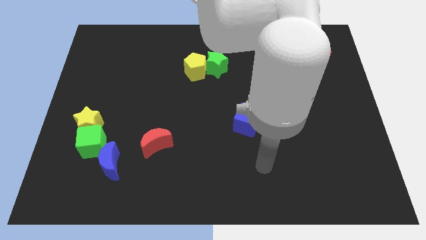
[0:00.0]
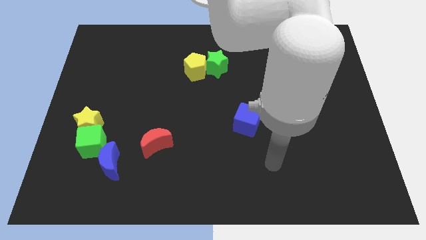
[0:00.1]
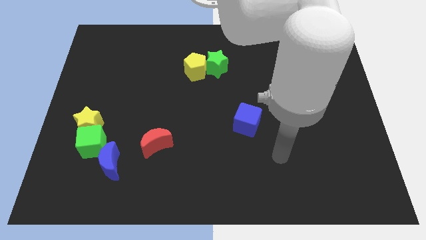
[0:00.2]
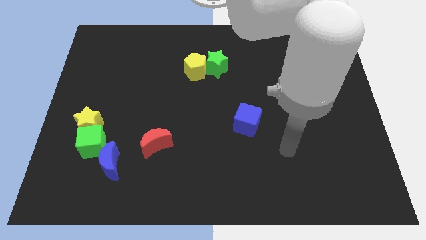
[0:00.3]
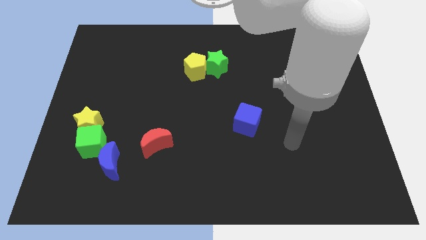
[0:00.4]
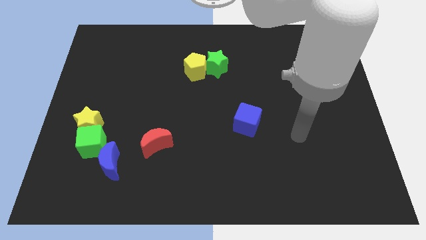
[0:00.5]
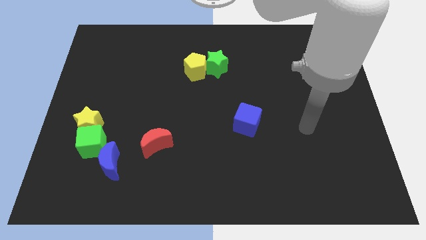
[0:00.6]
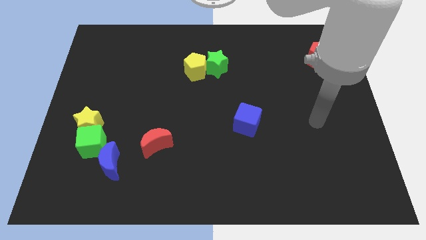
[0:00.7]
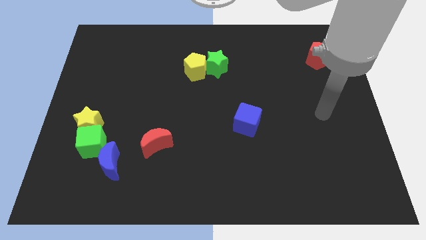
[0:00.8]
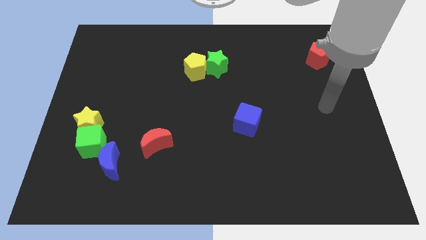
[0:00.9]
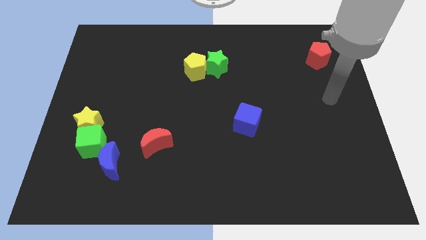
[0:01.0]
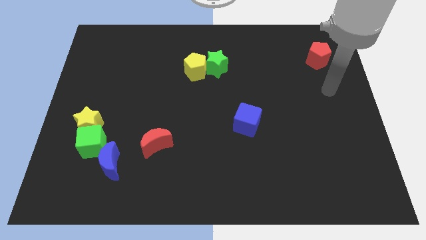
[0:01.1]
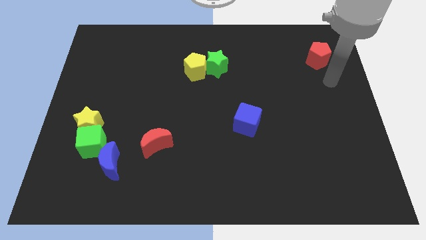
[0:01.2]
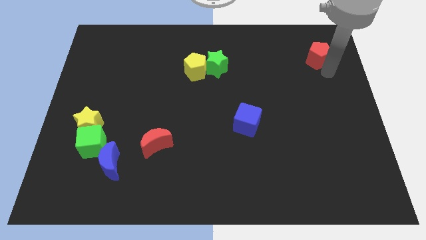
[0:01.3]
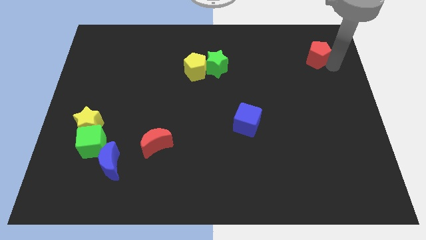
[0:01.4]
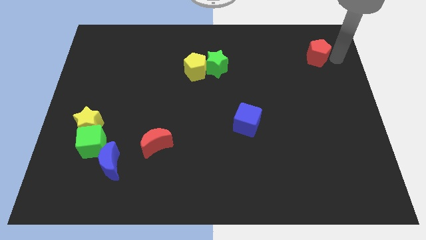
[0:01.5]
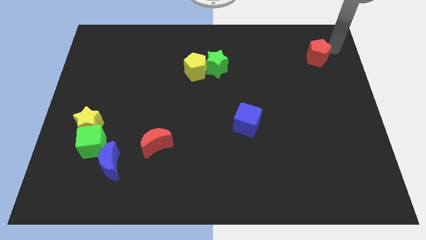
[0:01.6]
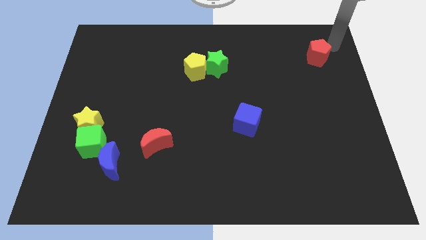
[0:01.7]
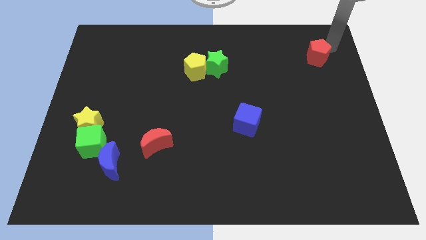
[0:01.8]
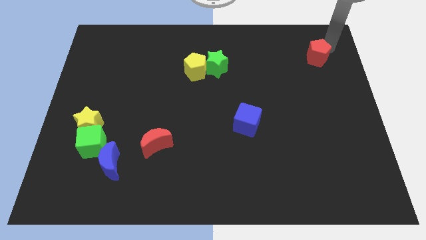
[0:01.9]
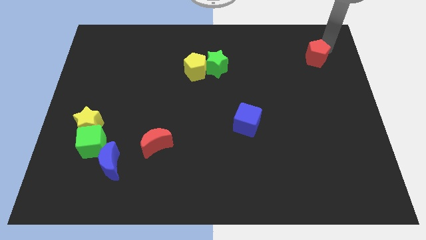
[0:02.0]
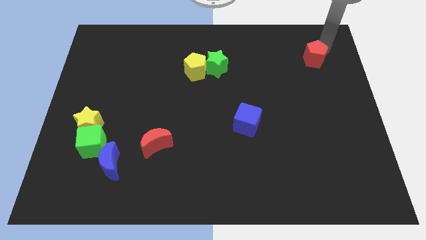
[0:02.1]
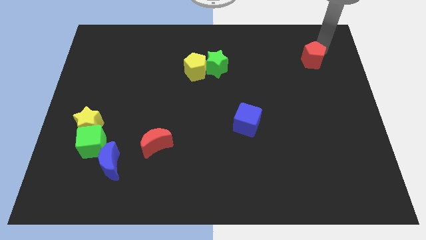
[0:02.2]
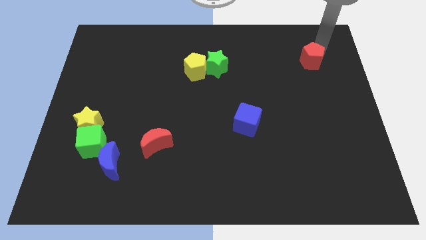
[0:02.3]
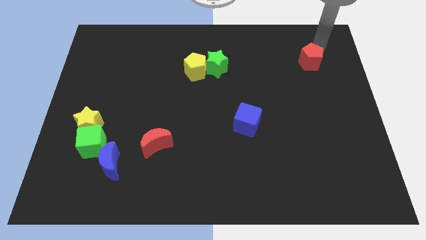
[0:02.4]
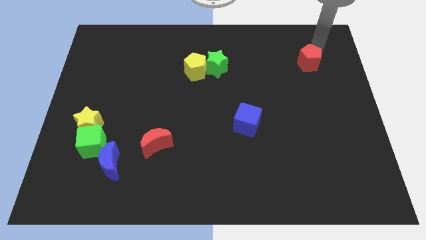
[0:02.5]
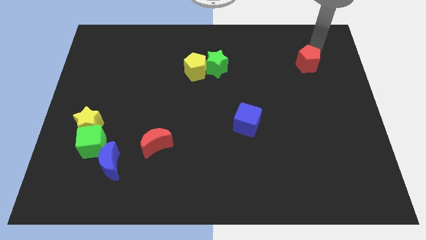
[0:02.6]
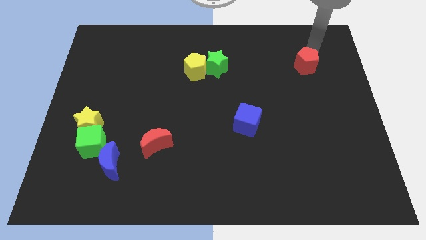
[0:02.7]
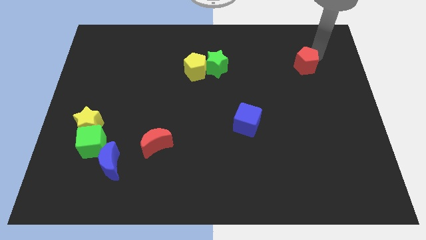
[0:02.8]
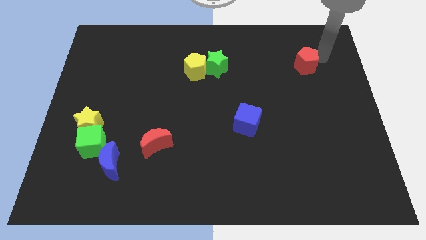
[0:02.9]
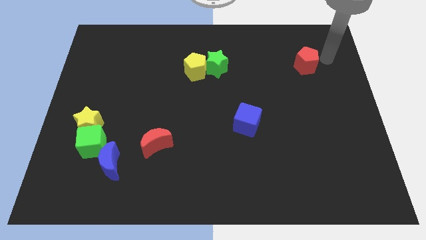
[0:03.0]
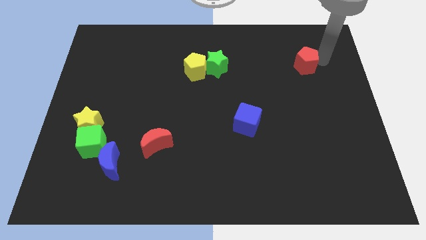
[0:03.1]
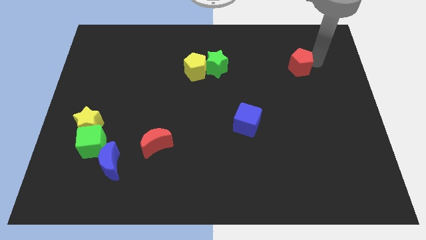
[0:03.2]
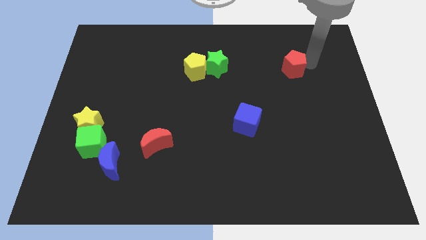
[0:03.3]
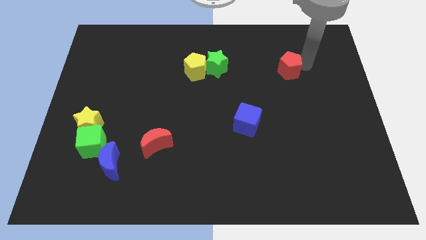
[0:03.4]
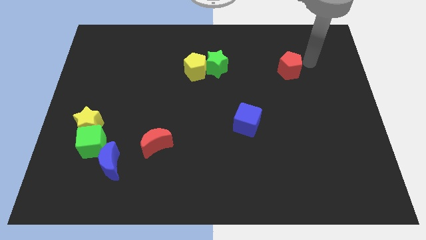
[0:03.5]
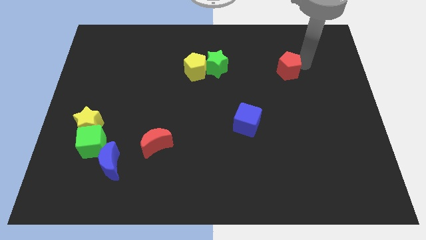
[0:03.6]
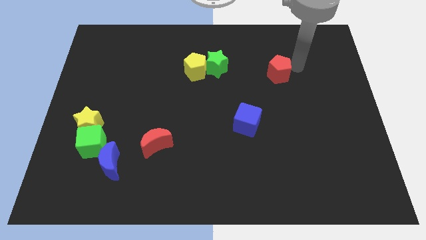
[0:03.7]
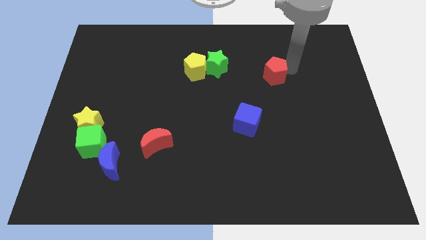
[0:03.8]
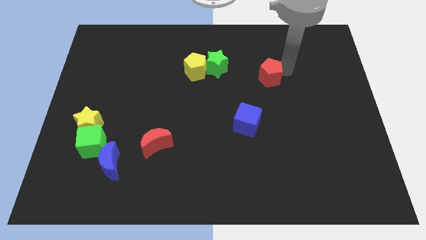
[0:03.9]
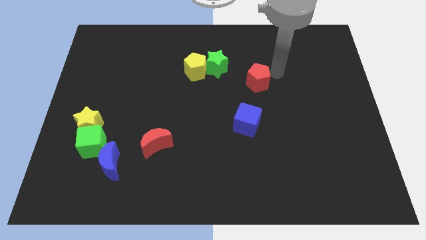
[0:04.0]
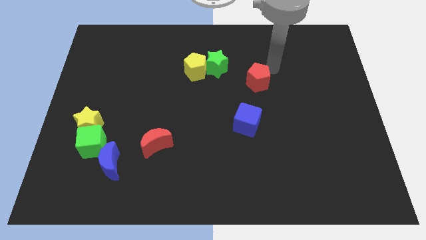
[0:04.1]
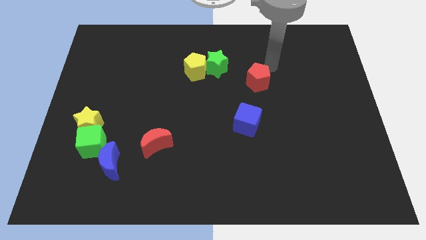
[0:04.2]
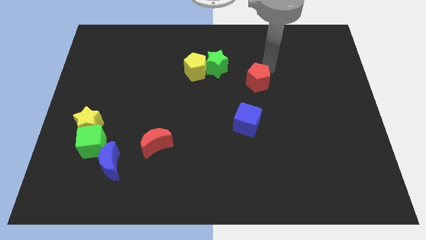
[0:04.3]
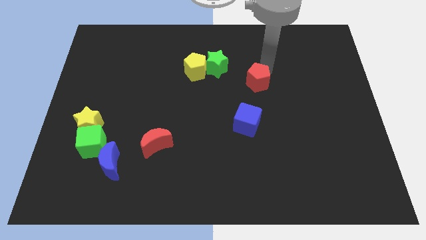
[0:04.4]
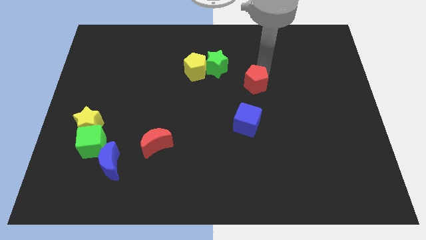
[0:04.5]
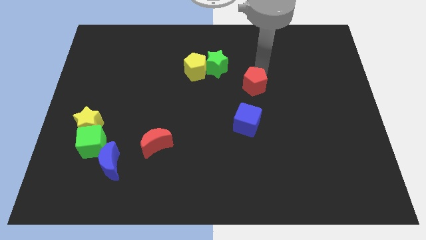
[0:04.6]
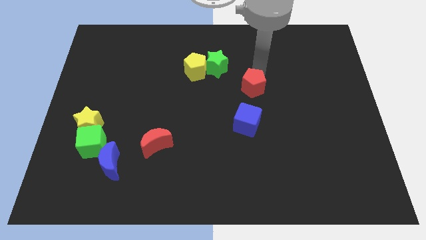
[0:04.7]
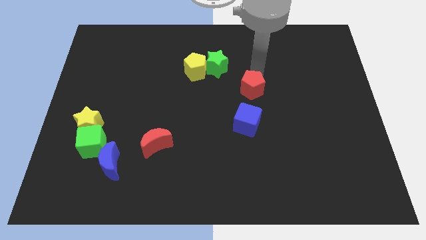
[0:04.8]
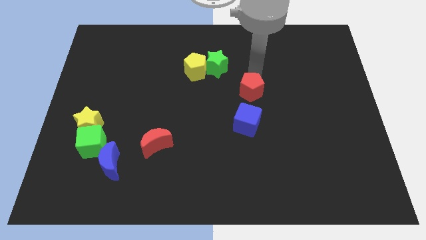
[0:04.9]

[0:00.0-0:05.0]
move the red pentagon downwards and left

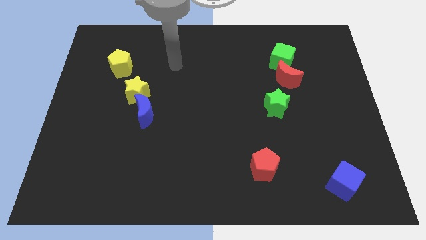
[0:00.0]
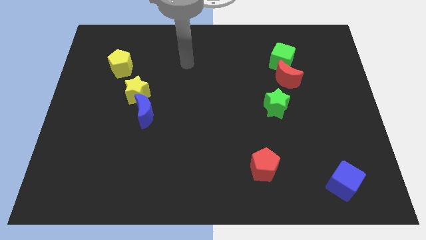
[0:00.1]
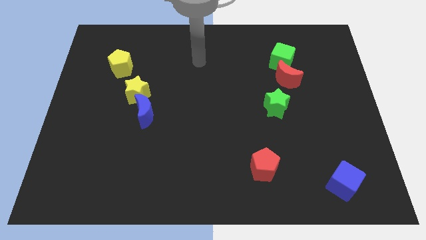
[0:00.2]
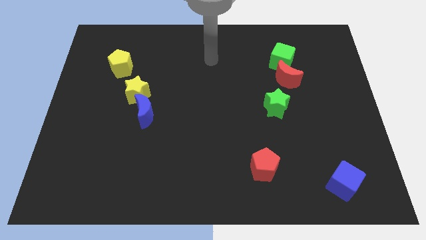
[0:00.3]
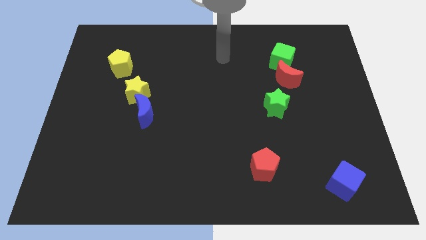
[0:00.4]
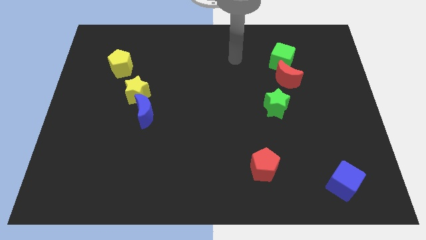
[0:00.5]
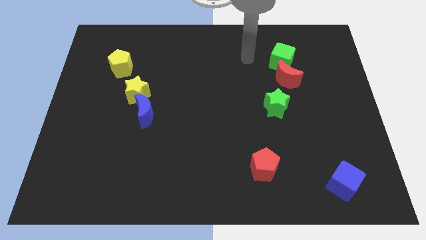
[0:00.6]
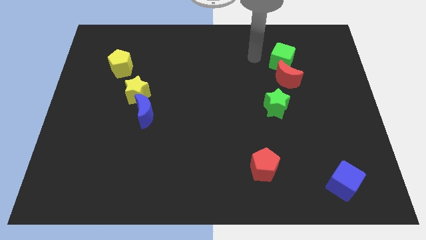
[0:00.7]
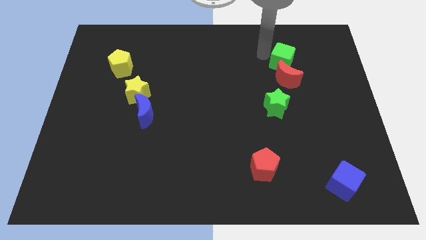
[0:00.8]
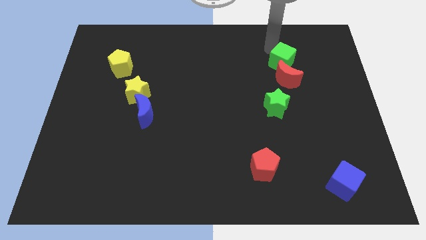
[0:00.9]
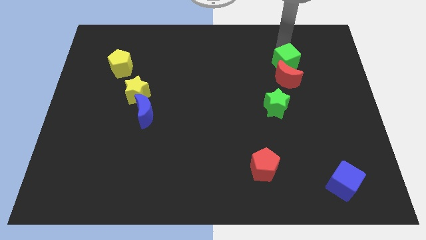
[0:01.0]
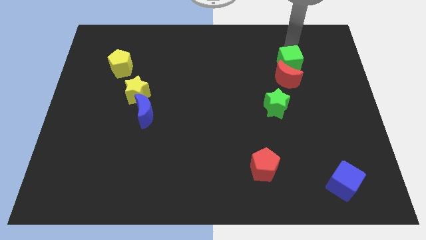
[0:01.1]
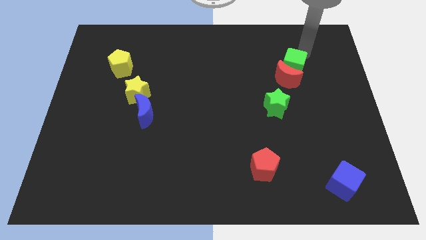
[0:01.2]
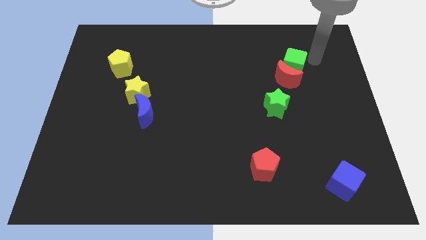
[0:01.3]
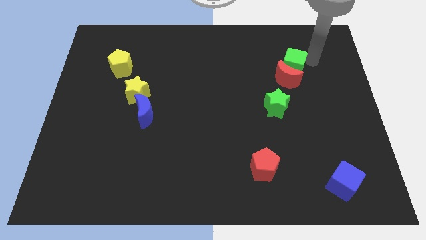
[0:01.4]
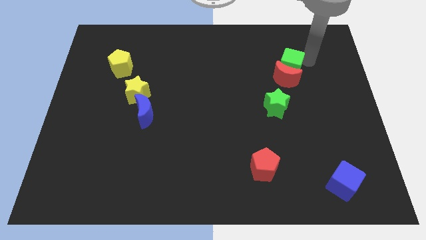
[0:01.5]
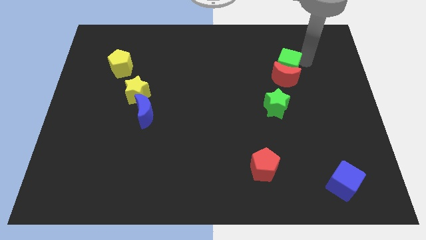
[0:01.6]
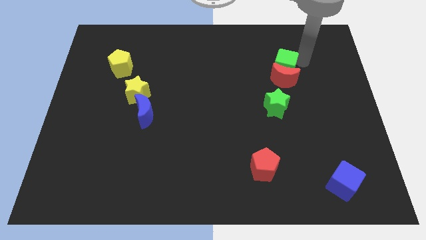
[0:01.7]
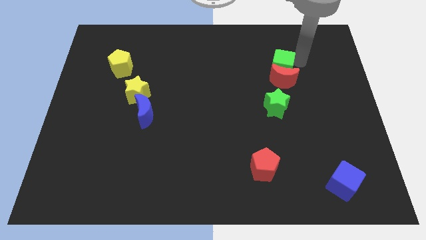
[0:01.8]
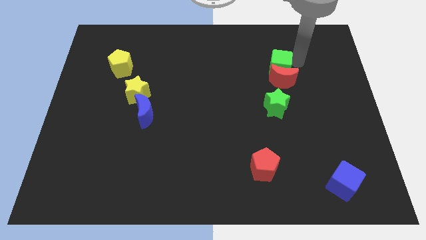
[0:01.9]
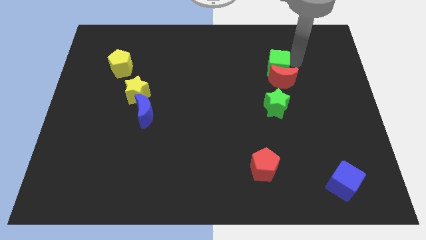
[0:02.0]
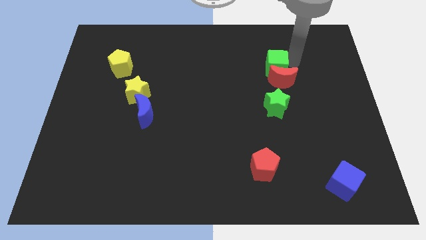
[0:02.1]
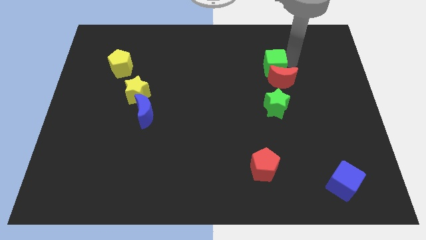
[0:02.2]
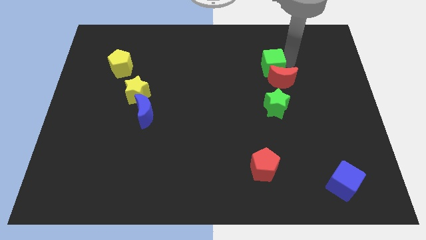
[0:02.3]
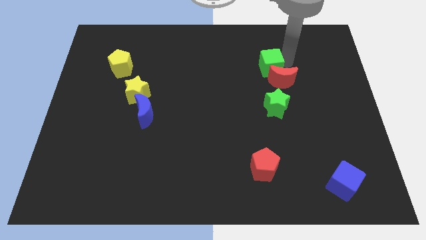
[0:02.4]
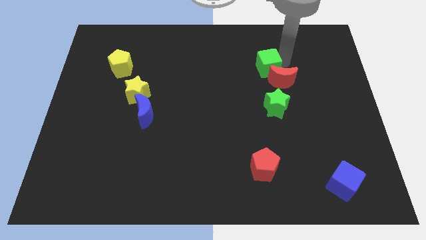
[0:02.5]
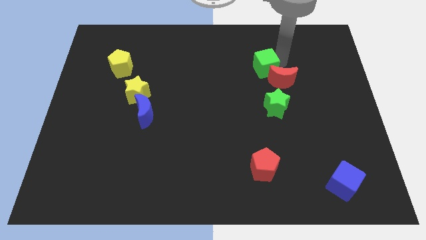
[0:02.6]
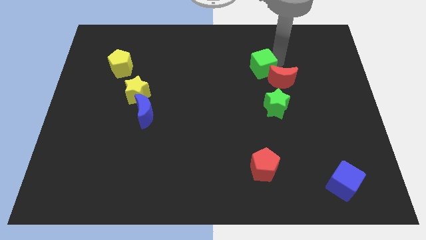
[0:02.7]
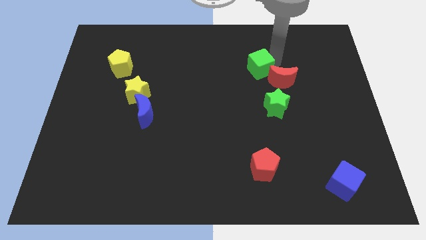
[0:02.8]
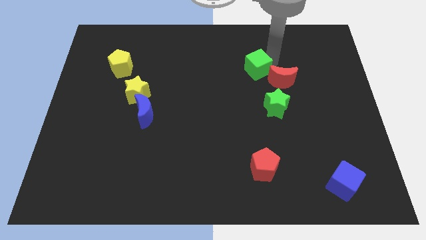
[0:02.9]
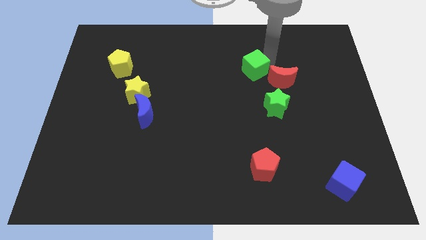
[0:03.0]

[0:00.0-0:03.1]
move the green cube somewhat down and to the left diagonally
